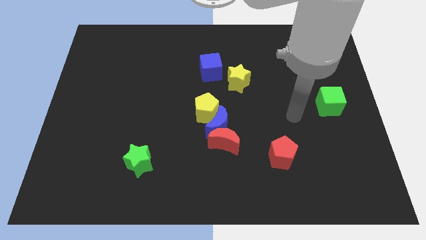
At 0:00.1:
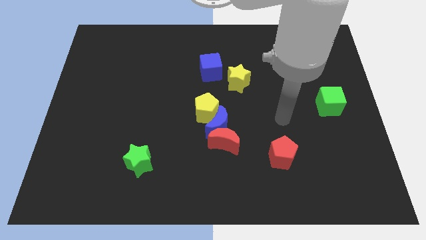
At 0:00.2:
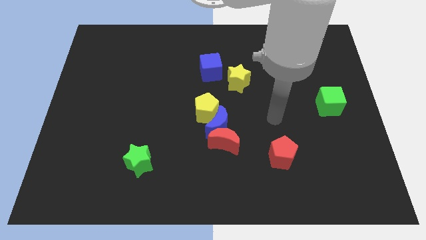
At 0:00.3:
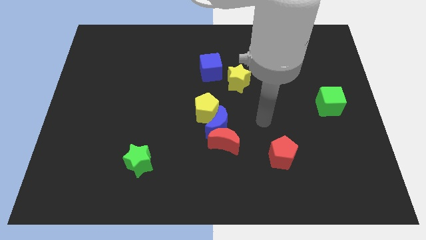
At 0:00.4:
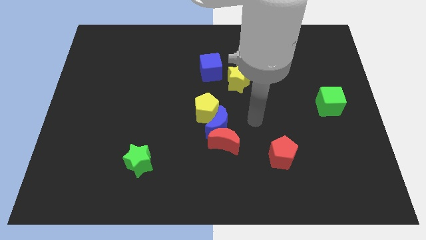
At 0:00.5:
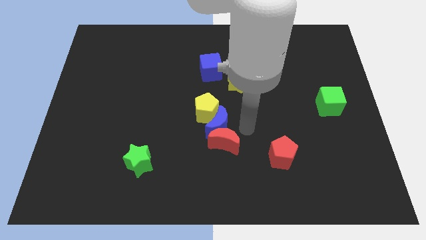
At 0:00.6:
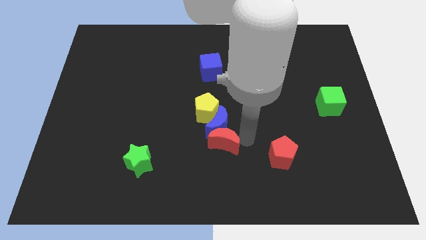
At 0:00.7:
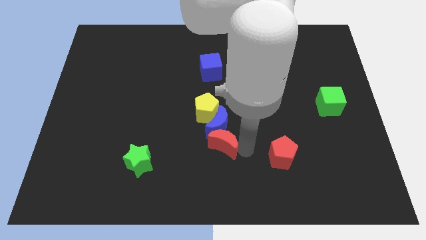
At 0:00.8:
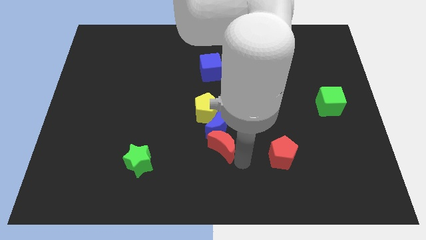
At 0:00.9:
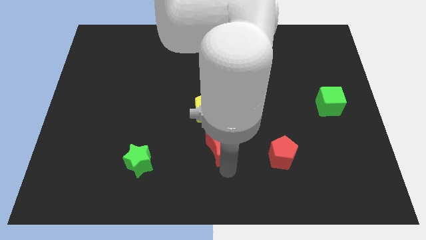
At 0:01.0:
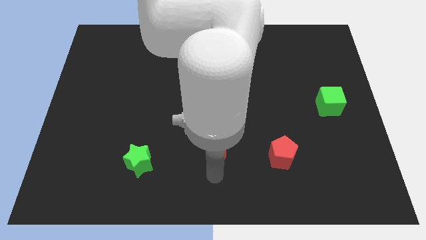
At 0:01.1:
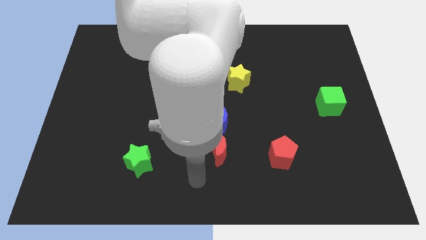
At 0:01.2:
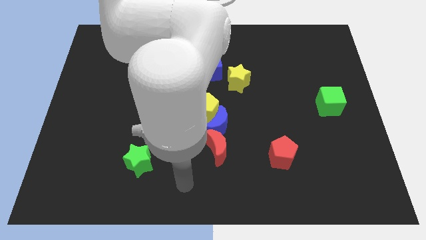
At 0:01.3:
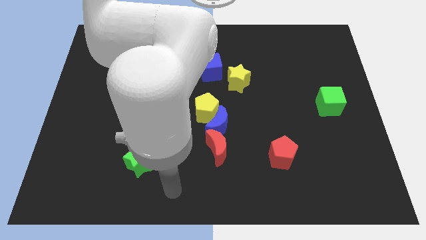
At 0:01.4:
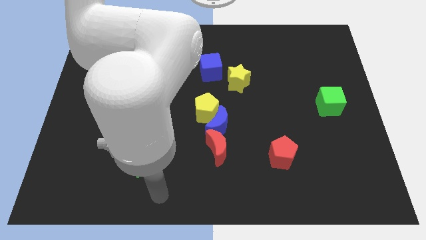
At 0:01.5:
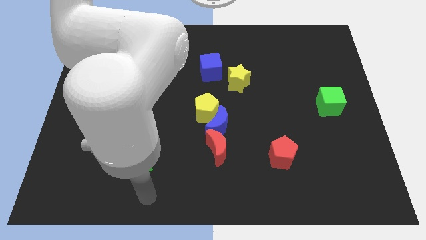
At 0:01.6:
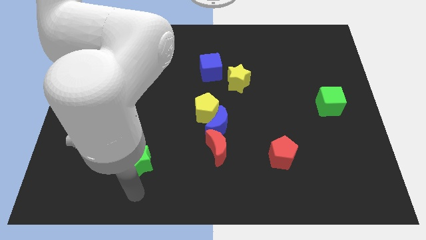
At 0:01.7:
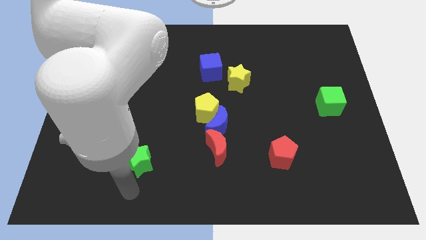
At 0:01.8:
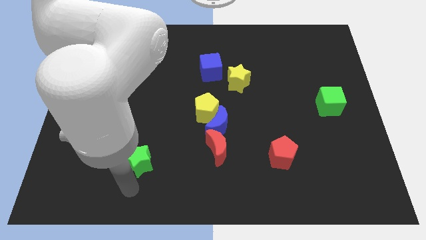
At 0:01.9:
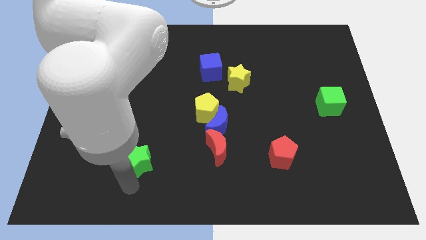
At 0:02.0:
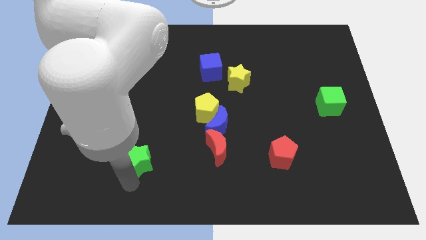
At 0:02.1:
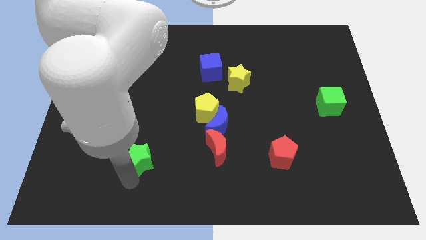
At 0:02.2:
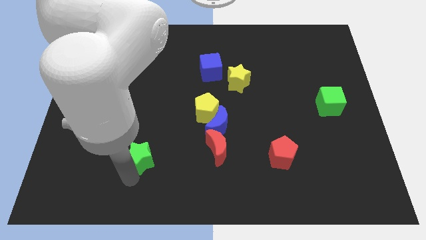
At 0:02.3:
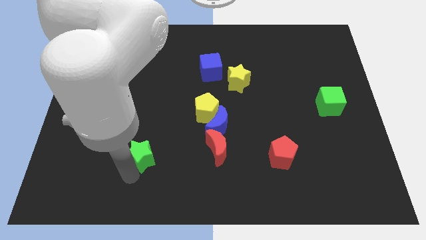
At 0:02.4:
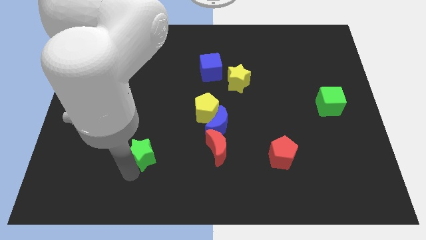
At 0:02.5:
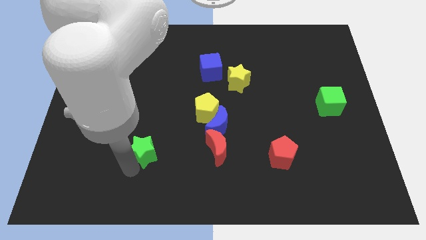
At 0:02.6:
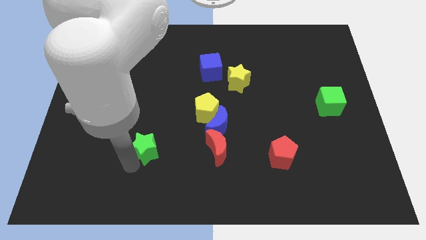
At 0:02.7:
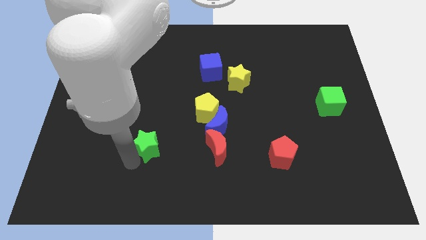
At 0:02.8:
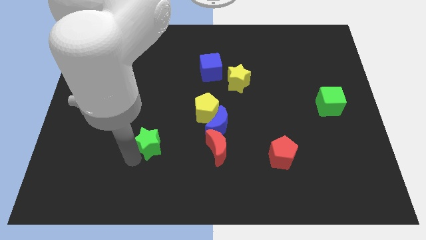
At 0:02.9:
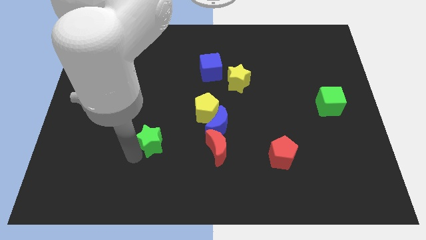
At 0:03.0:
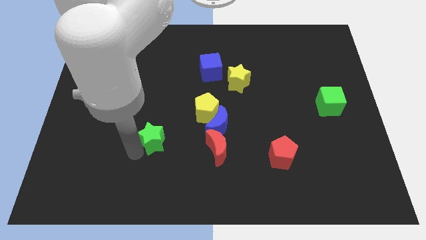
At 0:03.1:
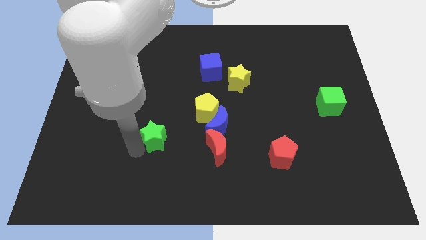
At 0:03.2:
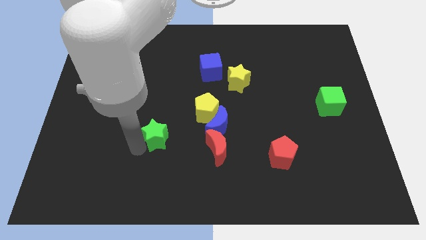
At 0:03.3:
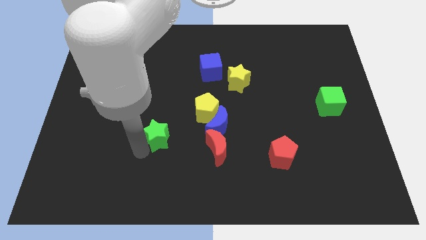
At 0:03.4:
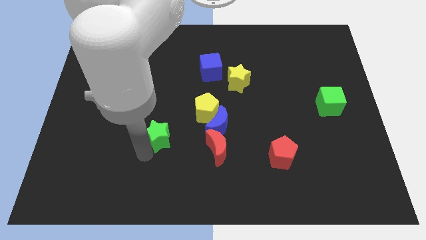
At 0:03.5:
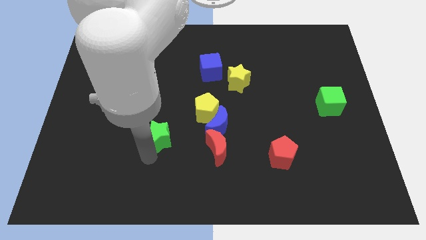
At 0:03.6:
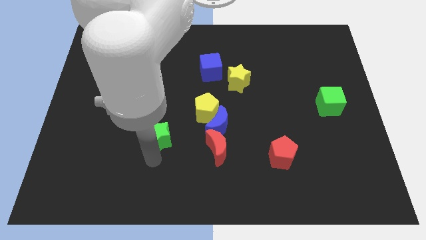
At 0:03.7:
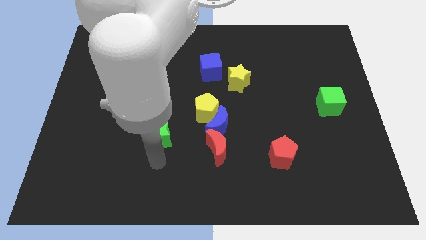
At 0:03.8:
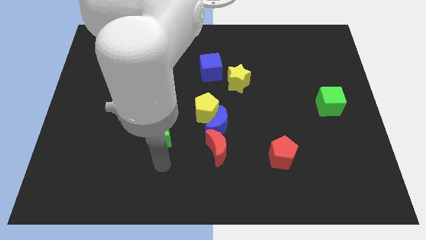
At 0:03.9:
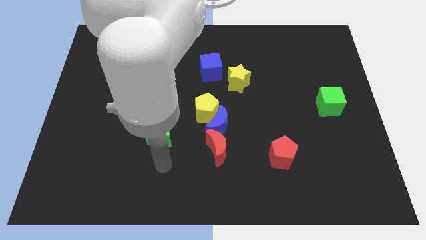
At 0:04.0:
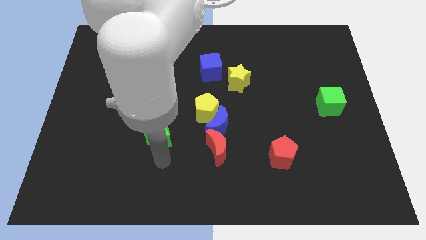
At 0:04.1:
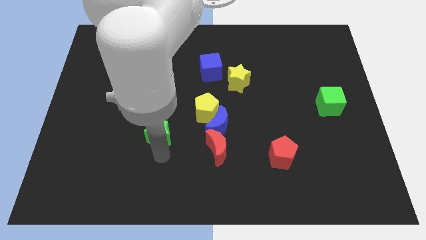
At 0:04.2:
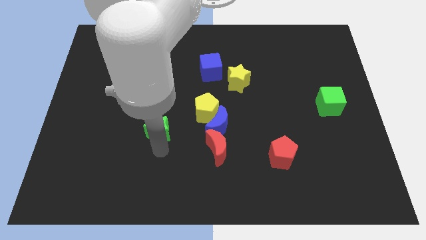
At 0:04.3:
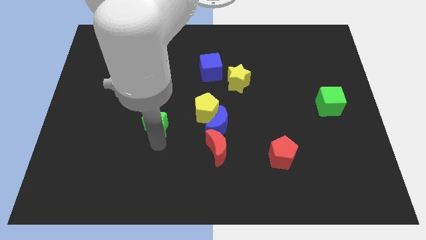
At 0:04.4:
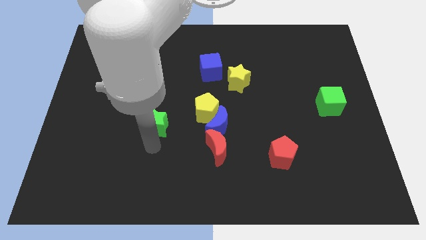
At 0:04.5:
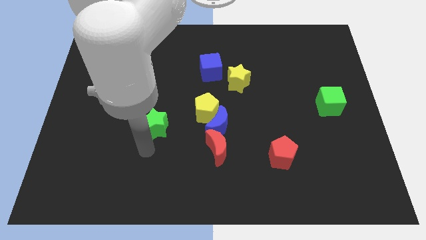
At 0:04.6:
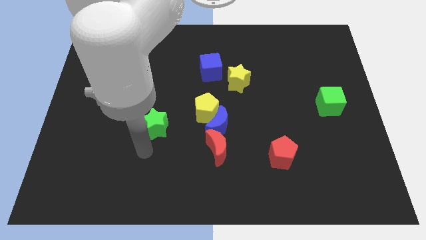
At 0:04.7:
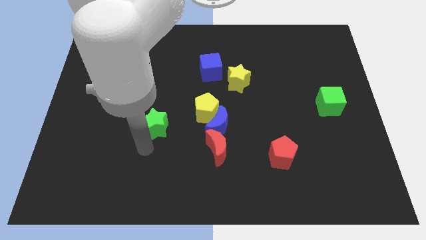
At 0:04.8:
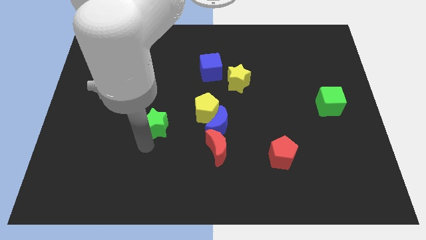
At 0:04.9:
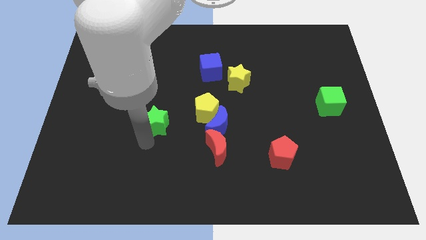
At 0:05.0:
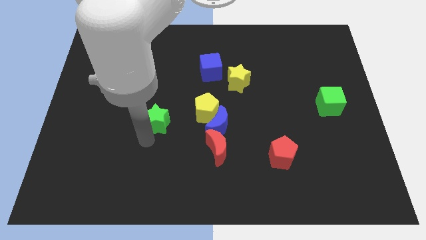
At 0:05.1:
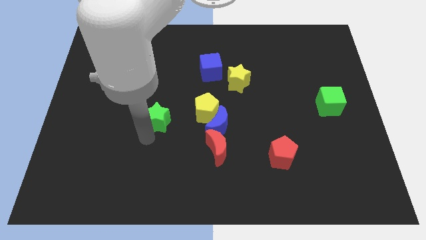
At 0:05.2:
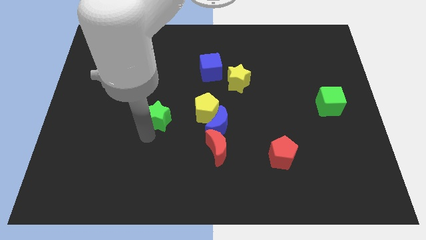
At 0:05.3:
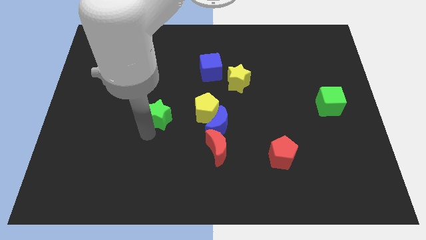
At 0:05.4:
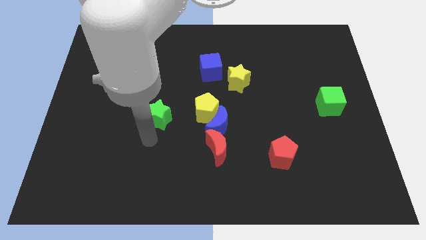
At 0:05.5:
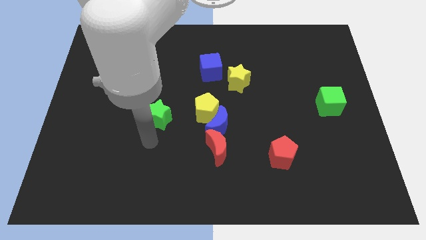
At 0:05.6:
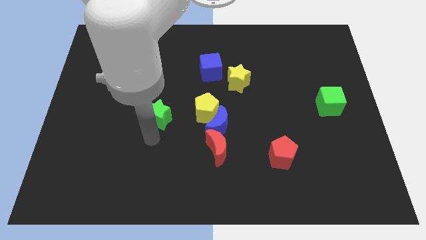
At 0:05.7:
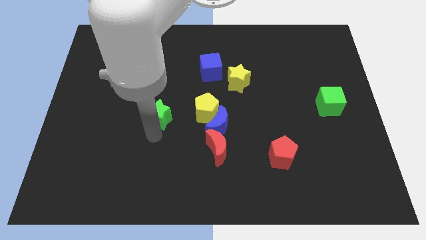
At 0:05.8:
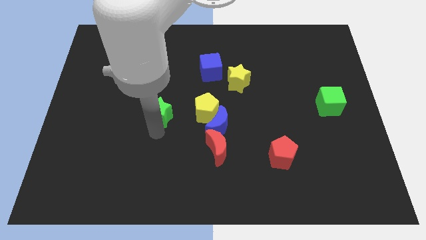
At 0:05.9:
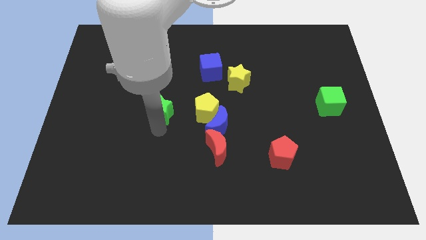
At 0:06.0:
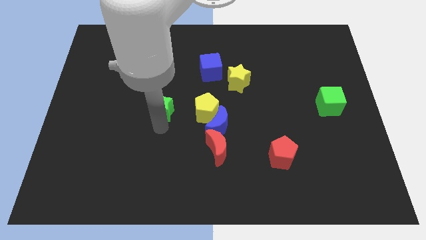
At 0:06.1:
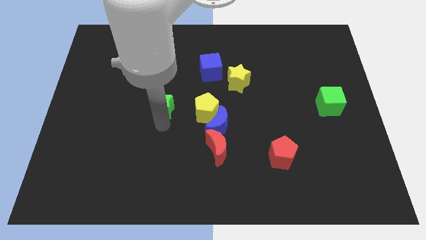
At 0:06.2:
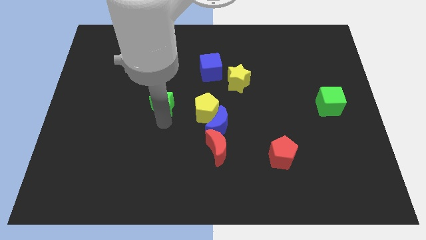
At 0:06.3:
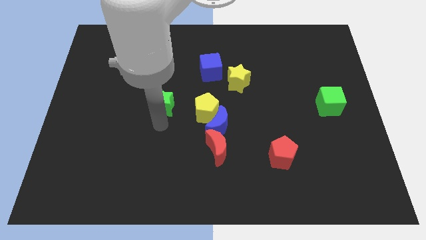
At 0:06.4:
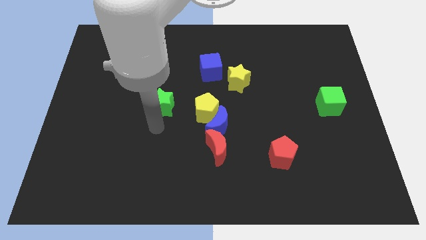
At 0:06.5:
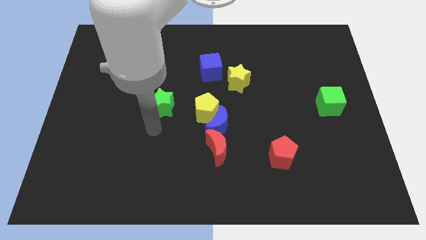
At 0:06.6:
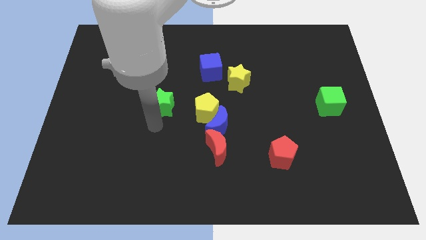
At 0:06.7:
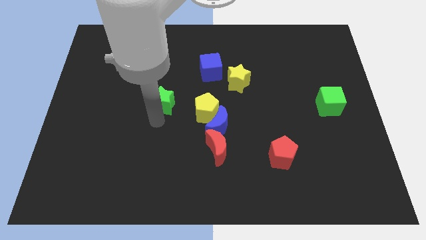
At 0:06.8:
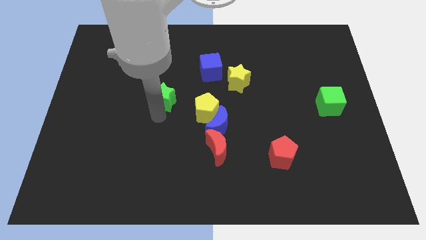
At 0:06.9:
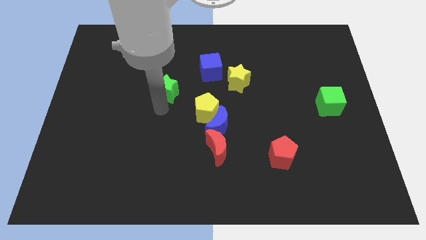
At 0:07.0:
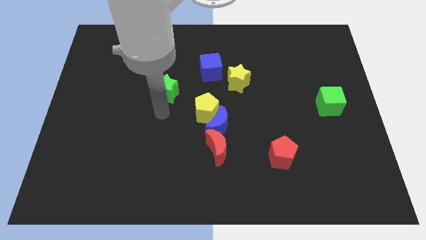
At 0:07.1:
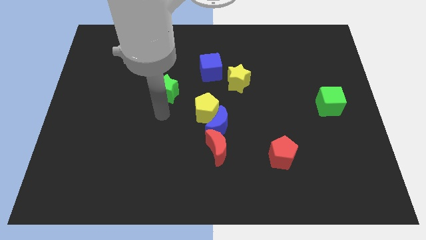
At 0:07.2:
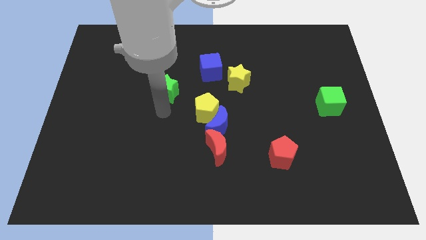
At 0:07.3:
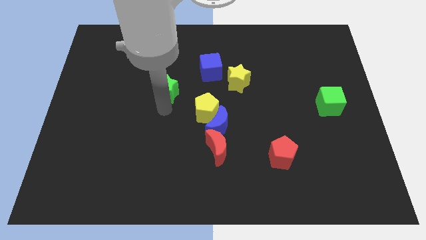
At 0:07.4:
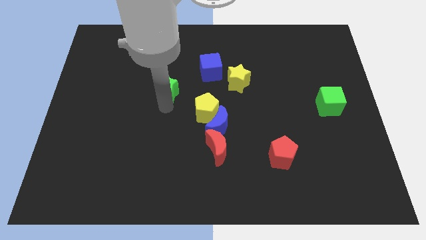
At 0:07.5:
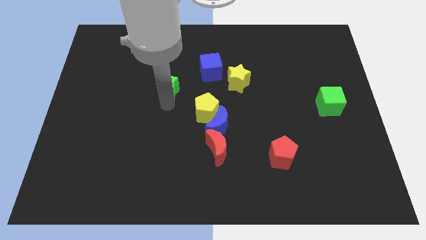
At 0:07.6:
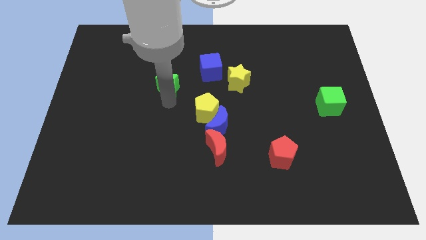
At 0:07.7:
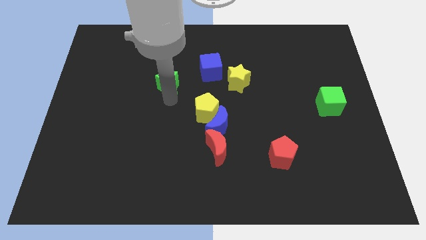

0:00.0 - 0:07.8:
push the green star just left of the blue cube
